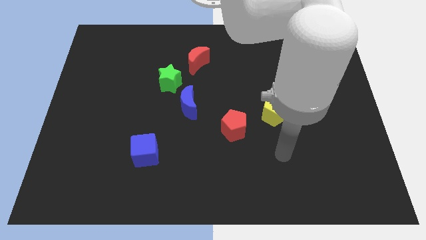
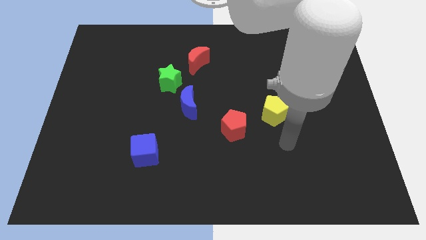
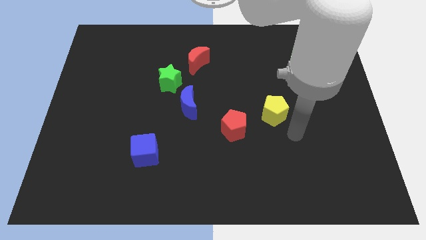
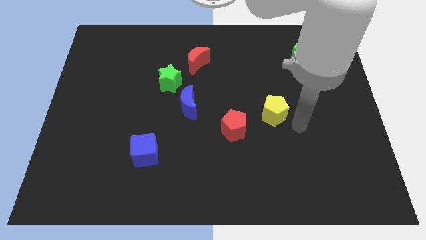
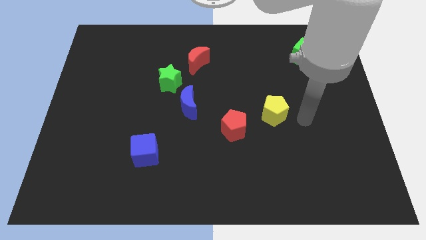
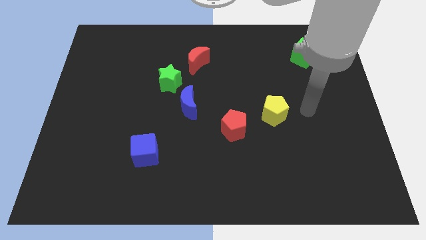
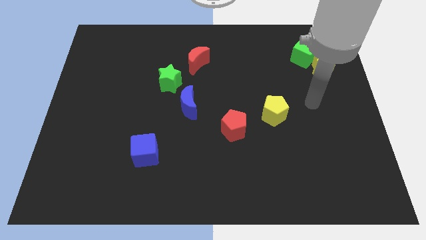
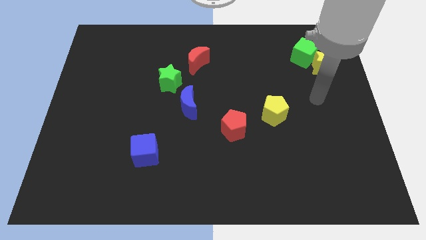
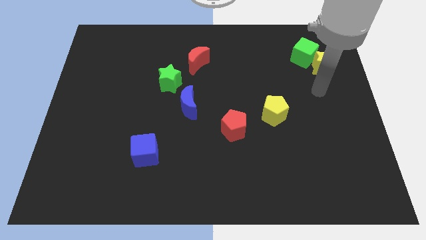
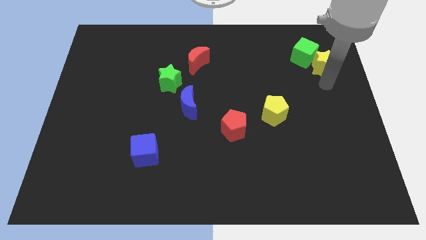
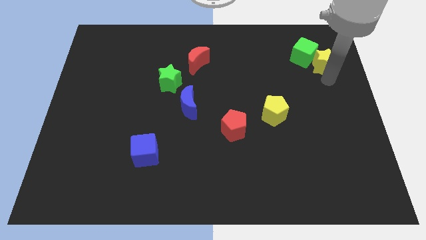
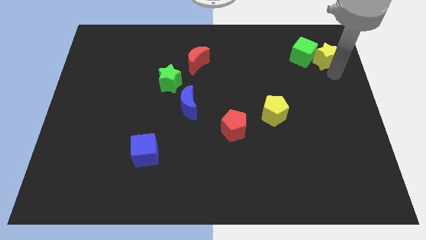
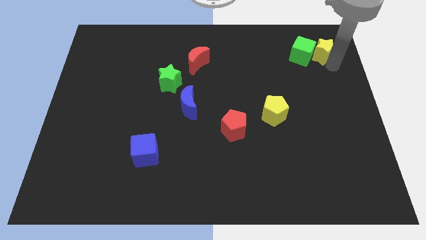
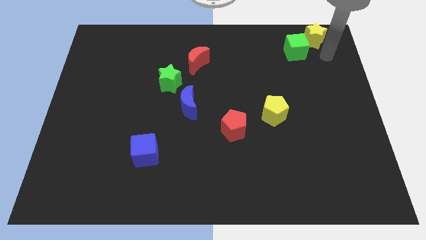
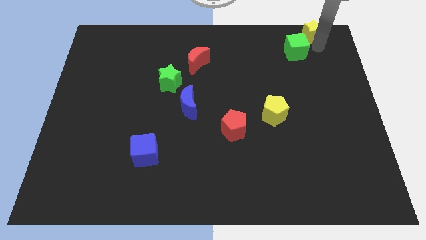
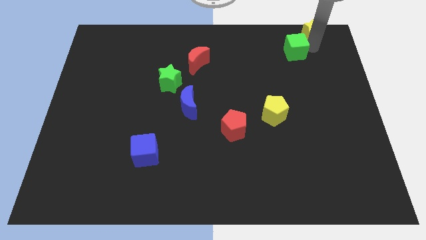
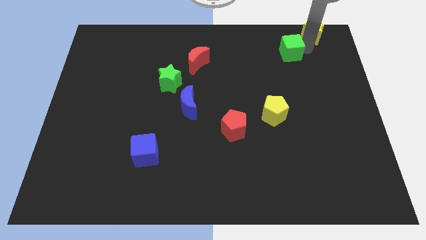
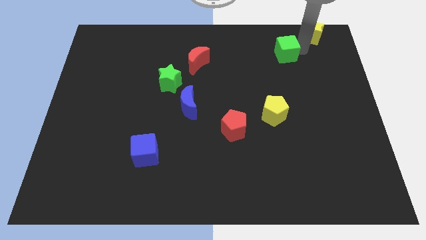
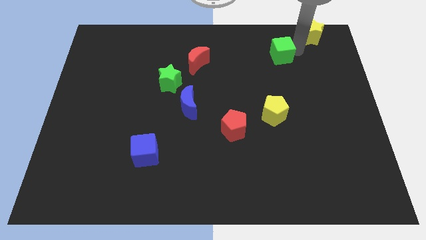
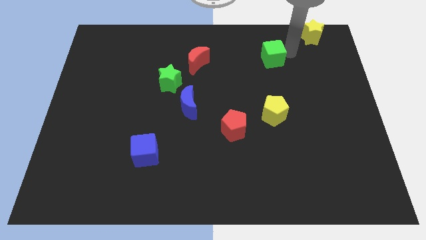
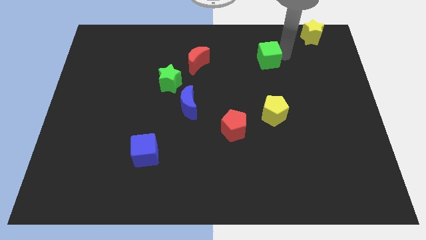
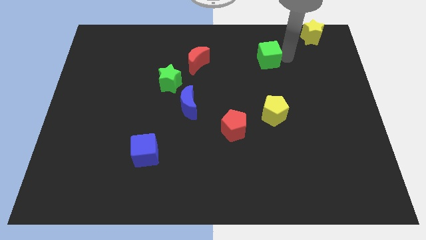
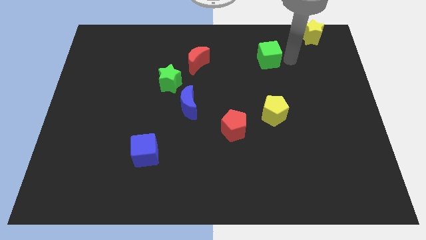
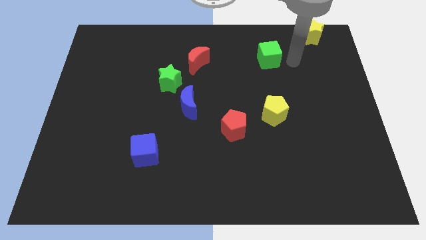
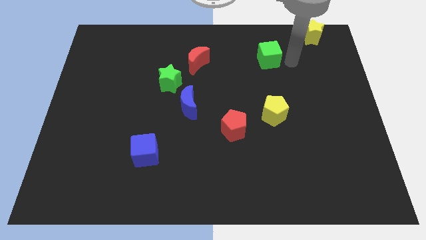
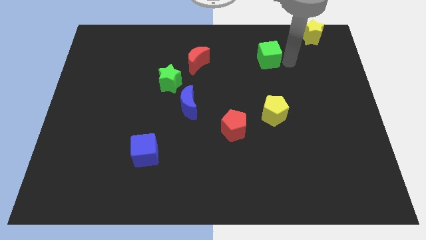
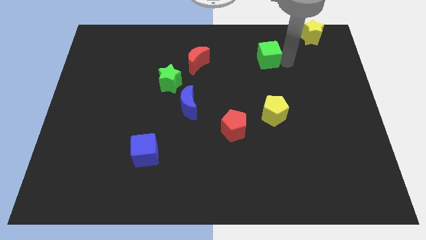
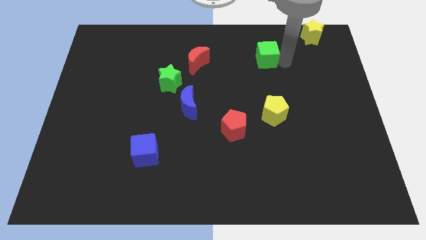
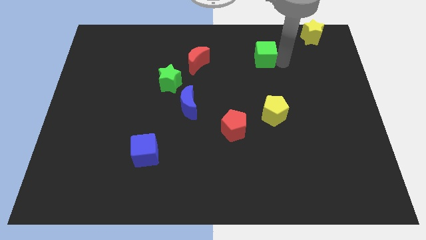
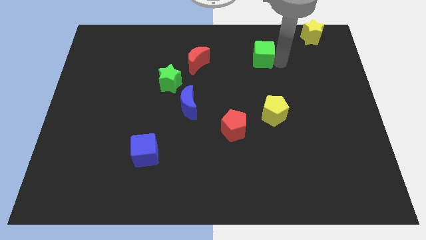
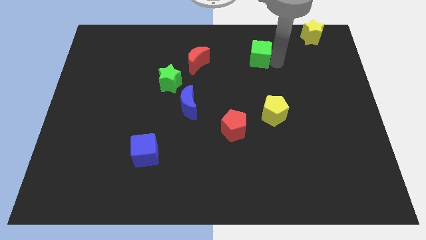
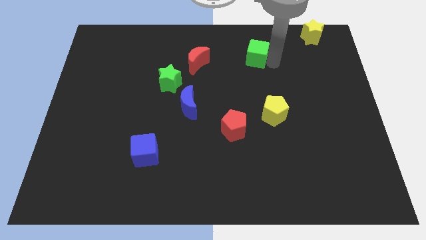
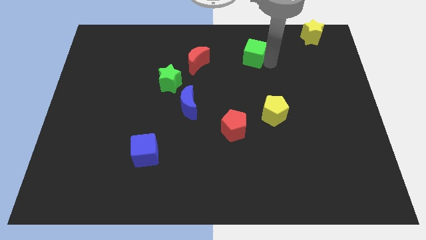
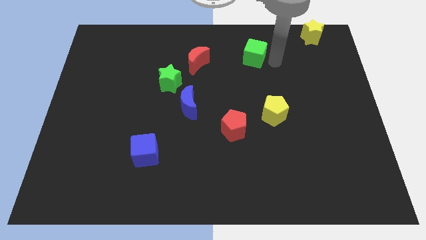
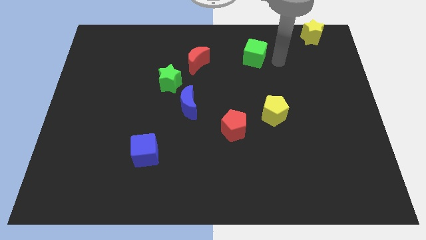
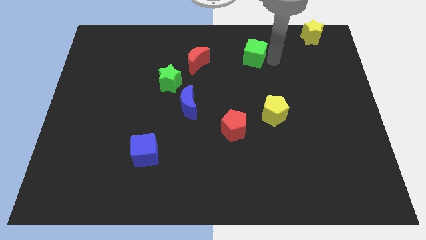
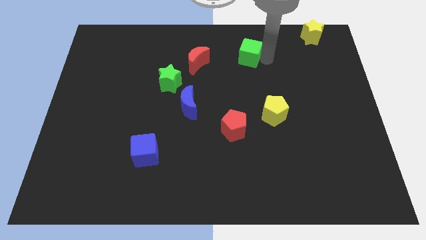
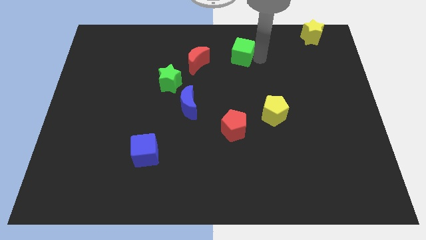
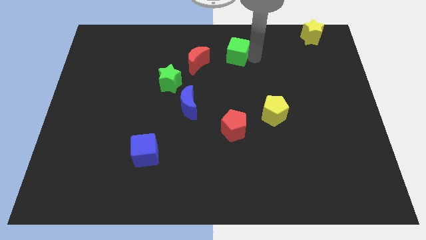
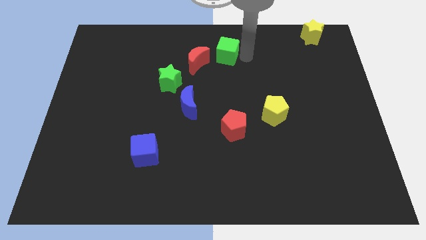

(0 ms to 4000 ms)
push the green cube to the left

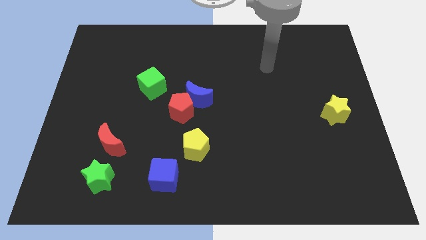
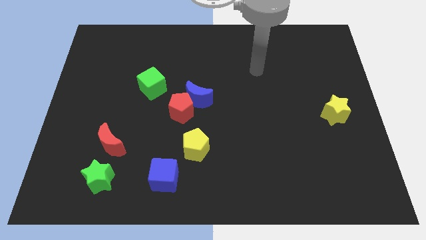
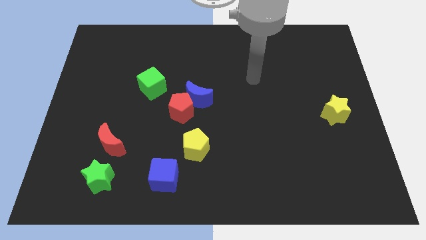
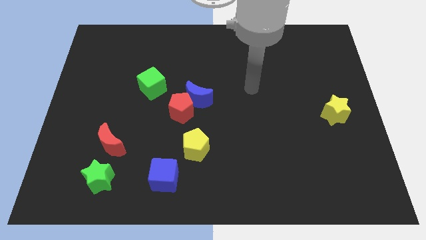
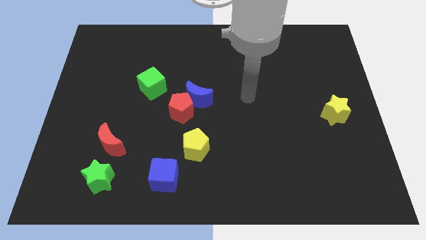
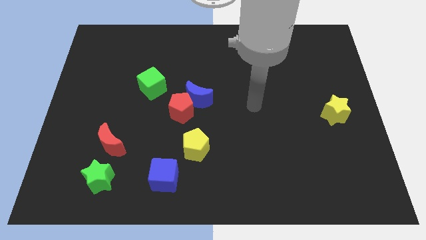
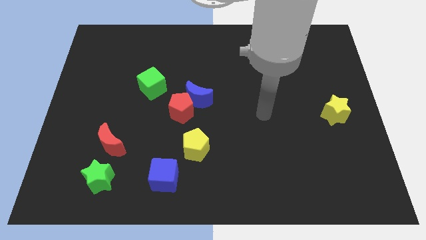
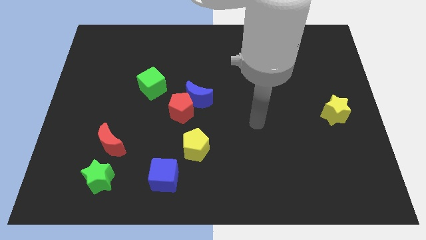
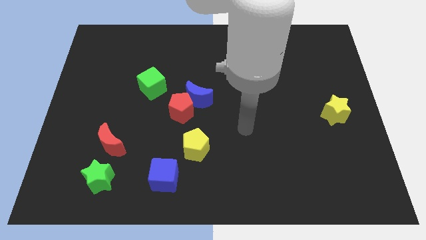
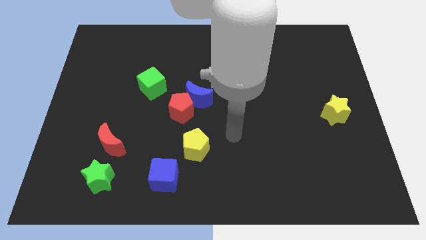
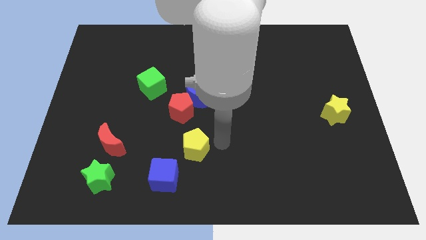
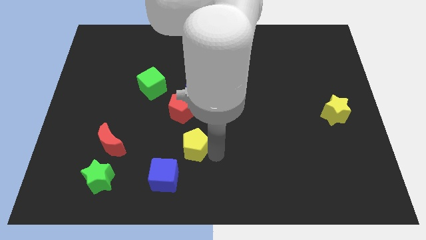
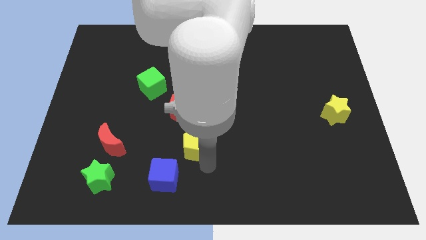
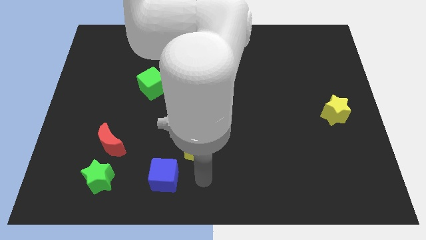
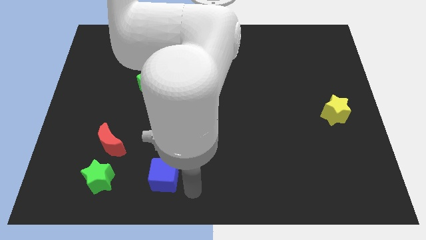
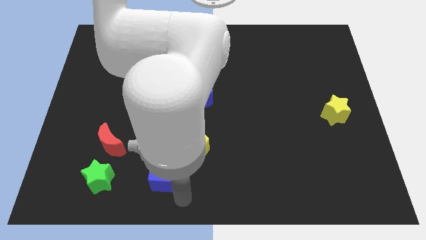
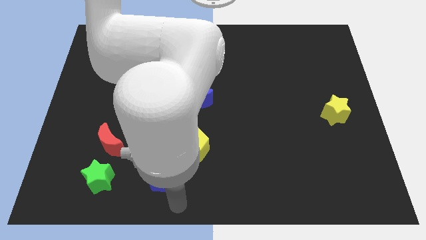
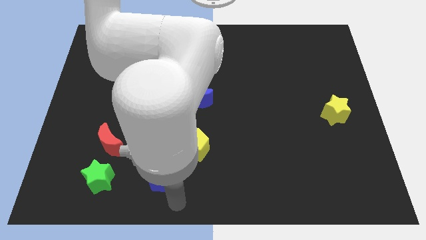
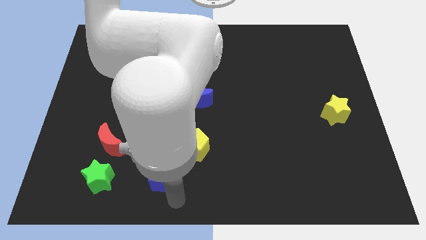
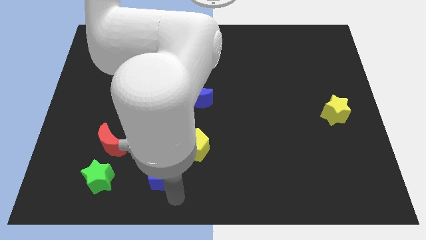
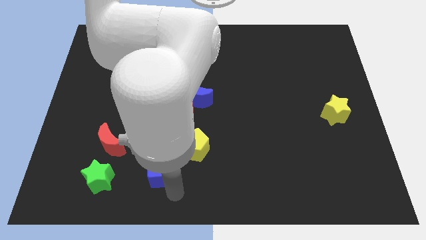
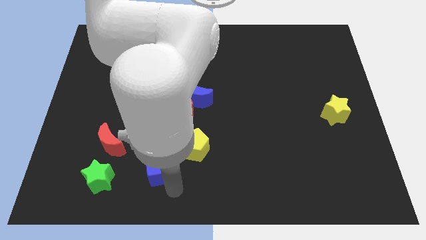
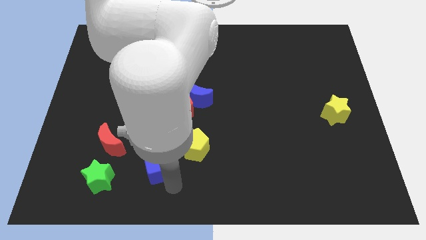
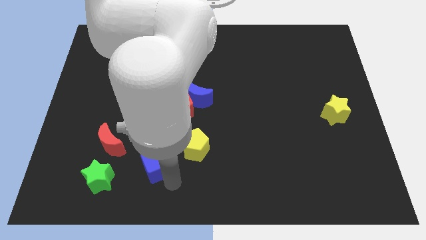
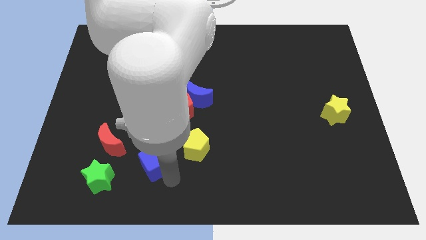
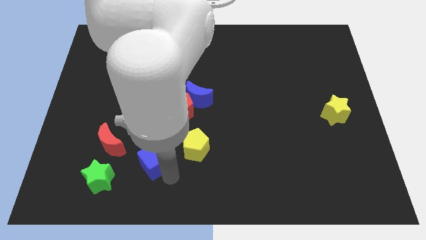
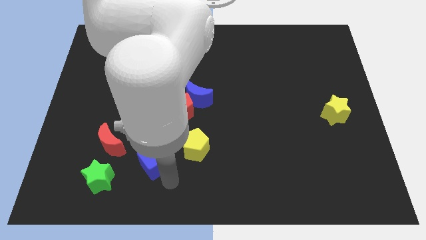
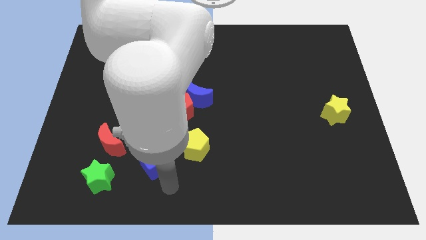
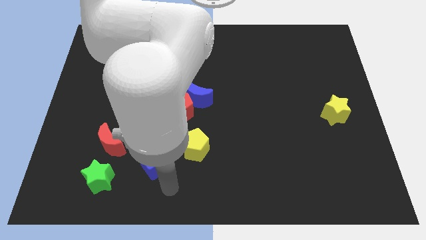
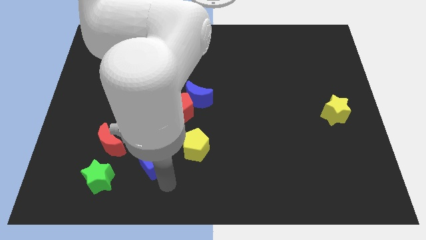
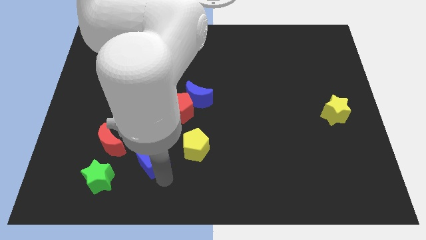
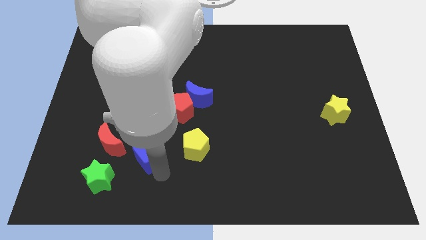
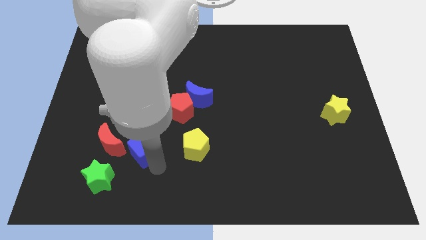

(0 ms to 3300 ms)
move the blue cube diagonally upwards and left a bit

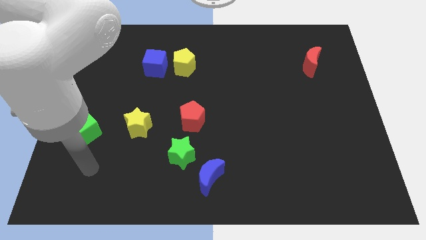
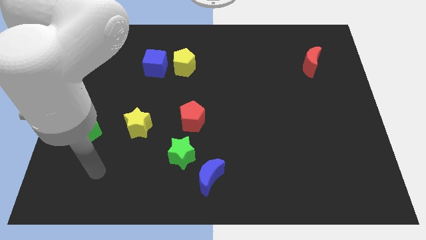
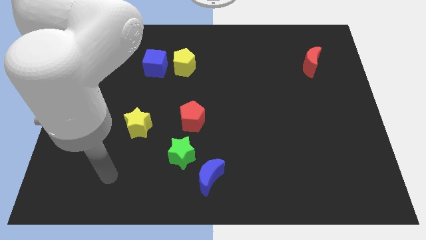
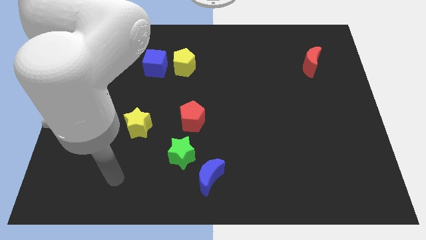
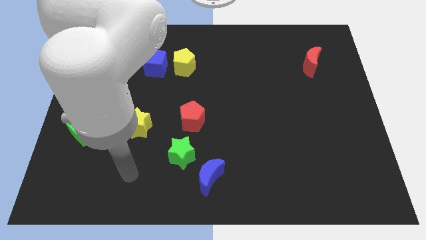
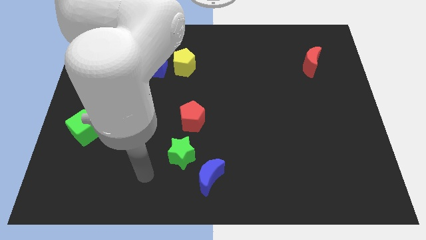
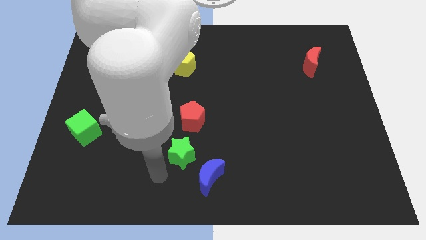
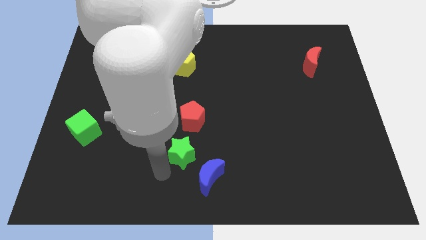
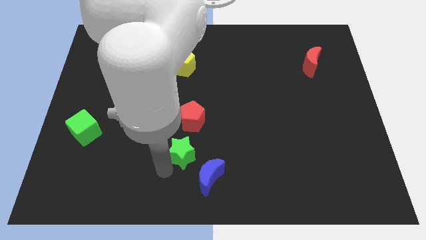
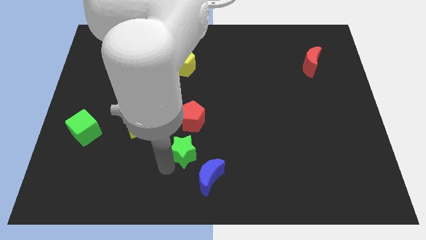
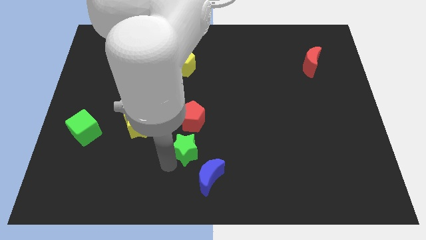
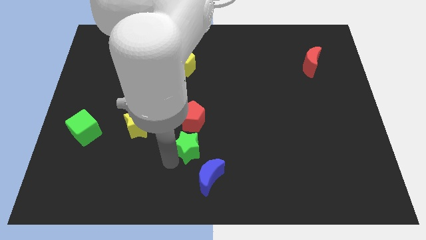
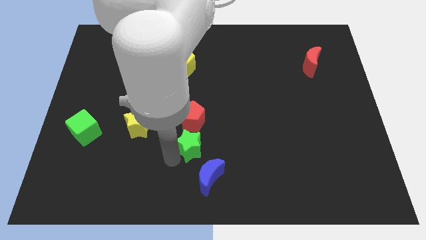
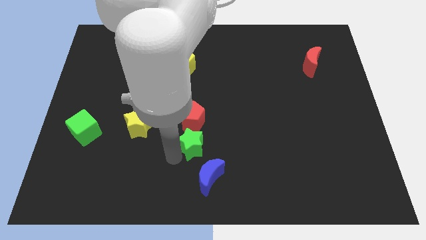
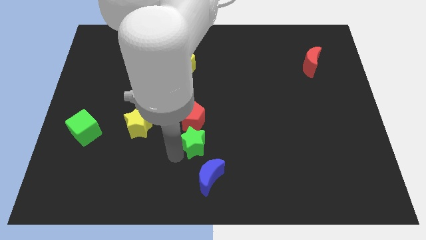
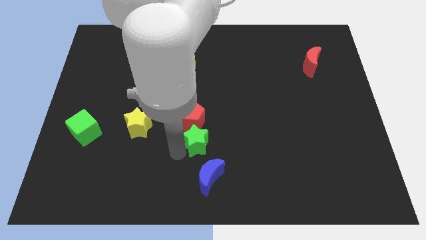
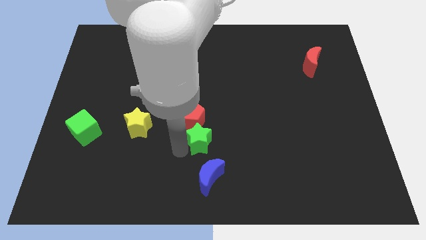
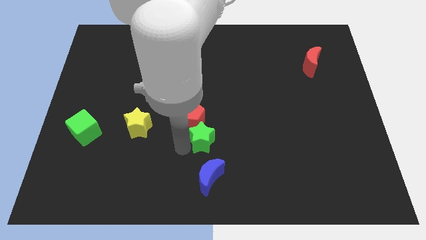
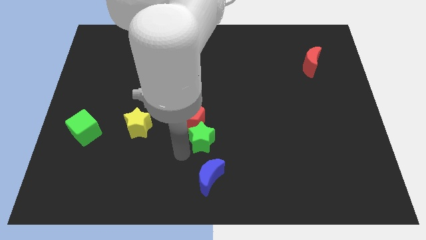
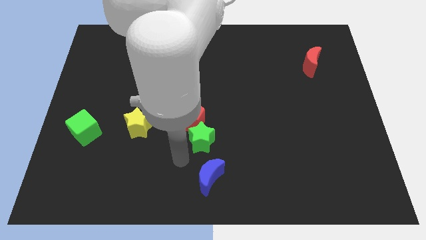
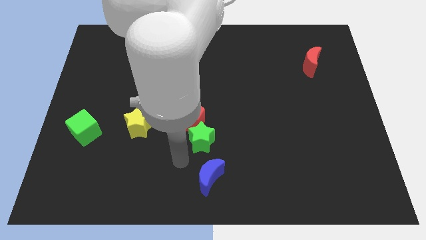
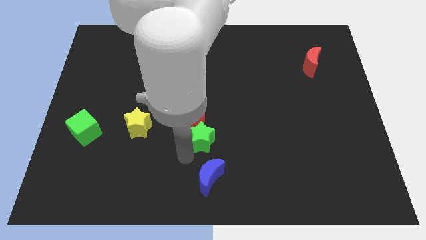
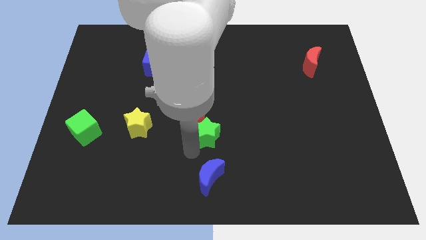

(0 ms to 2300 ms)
slightly move the green star up and to the right diagonally
